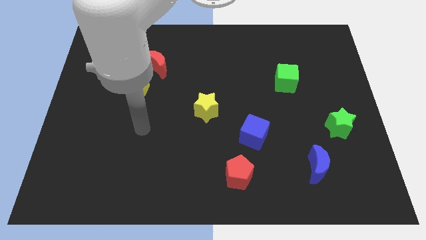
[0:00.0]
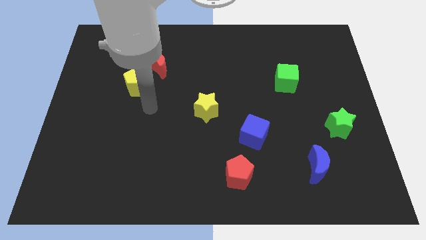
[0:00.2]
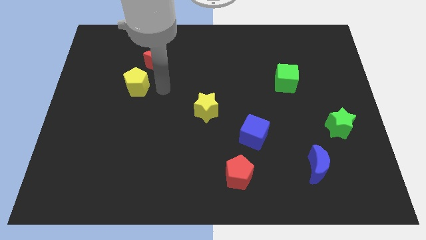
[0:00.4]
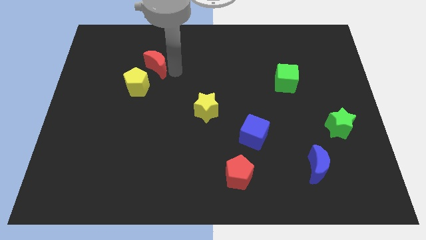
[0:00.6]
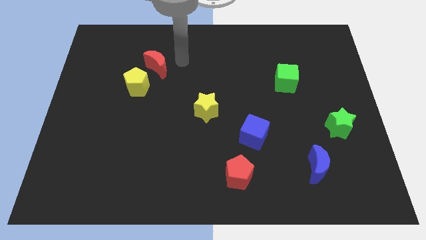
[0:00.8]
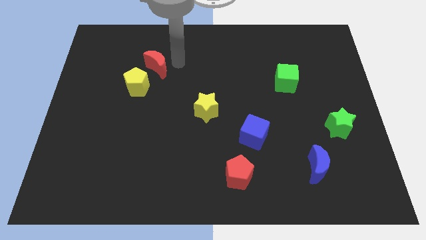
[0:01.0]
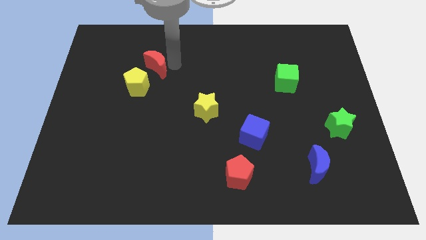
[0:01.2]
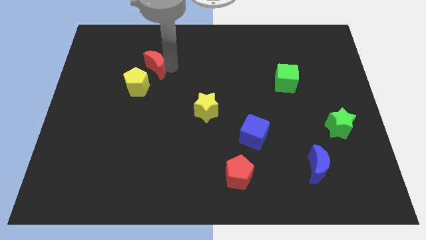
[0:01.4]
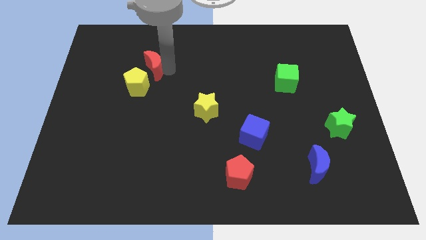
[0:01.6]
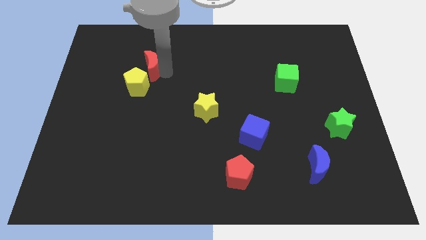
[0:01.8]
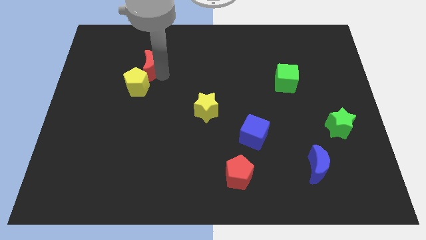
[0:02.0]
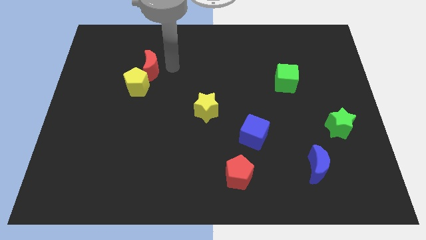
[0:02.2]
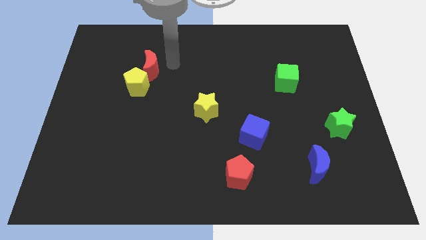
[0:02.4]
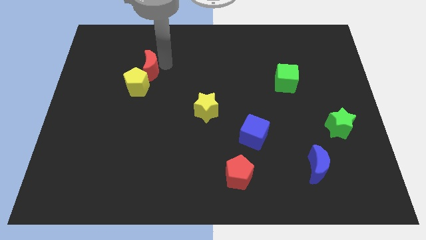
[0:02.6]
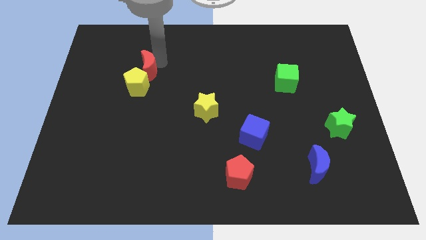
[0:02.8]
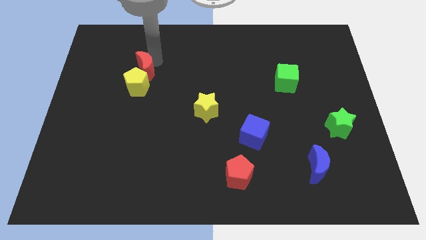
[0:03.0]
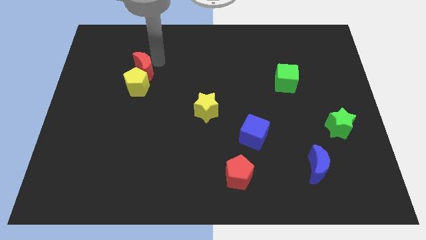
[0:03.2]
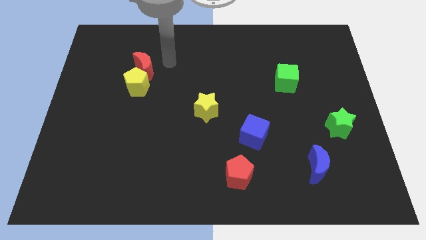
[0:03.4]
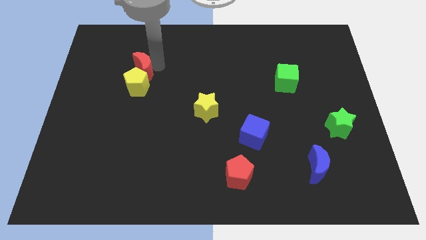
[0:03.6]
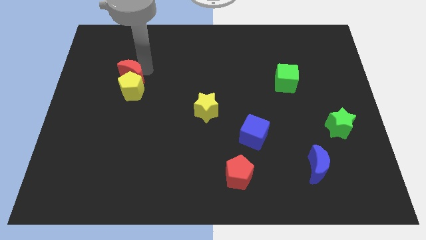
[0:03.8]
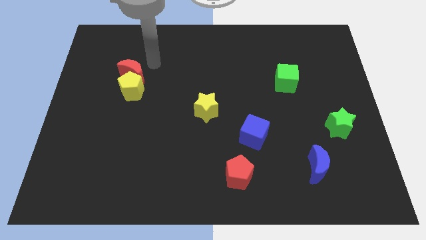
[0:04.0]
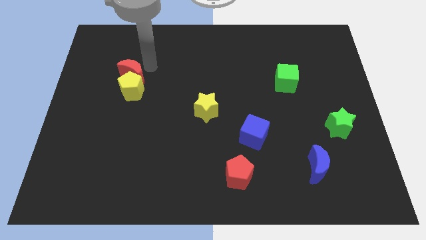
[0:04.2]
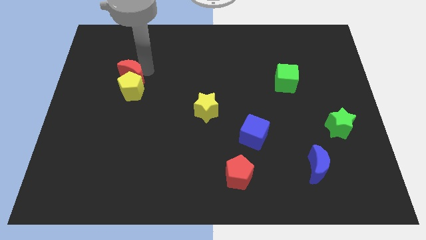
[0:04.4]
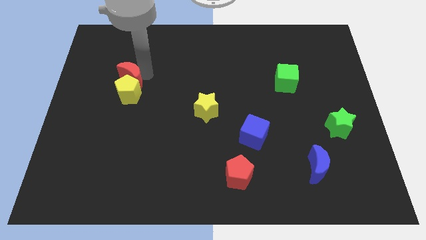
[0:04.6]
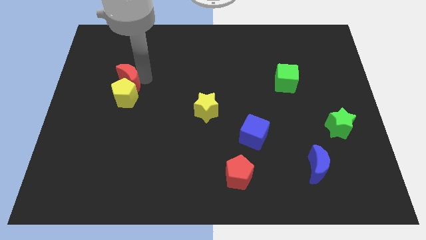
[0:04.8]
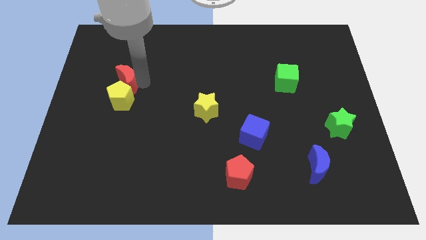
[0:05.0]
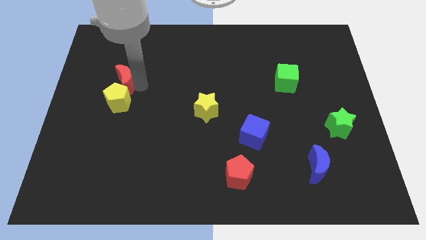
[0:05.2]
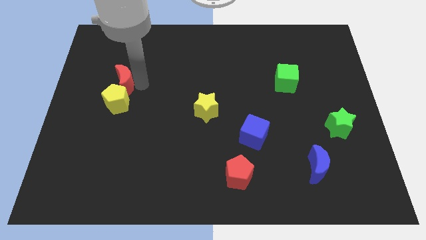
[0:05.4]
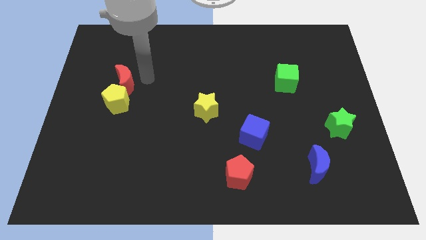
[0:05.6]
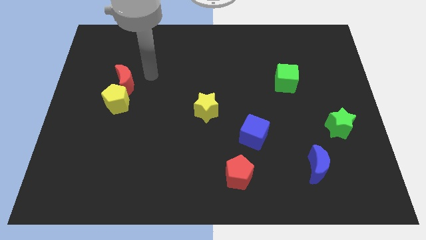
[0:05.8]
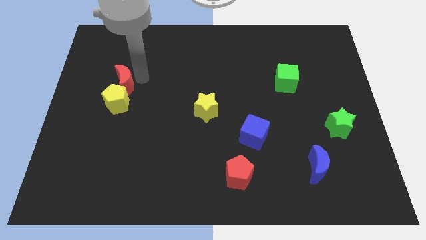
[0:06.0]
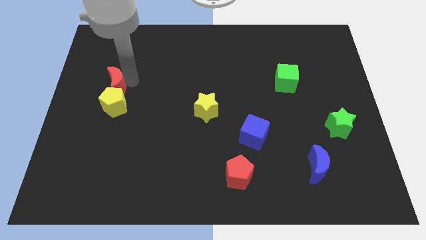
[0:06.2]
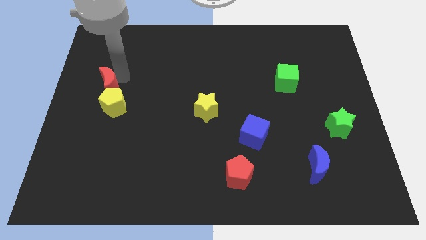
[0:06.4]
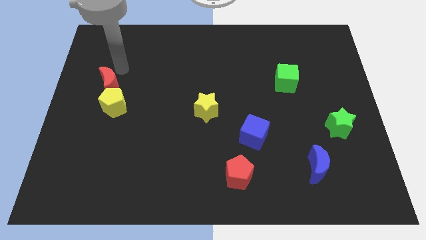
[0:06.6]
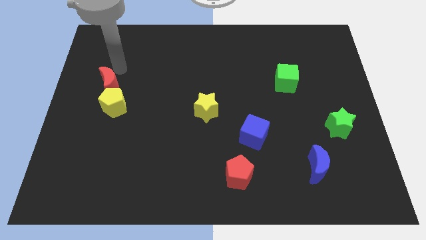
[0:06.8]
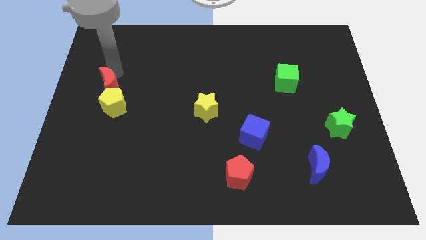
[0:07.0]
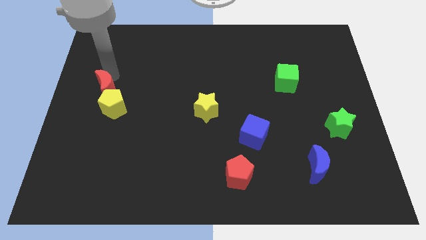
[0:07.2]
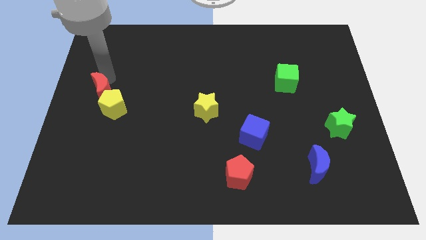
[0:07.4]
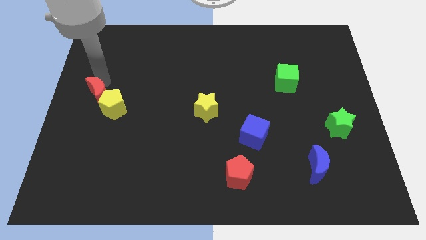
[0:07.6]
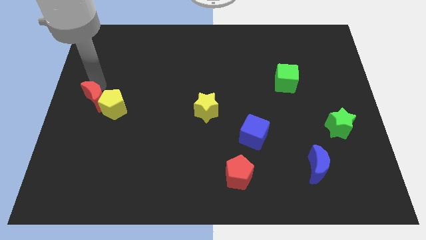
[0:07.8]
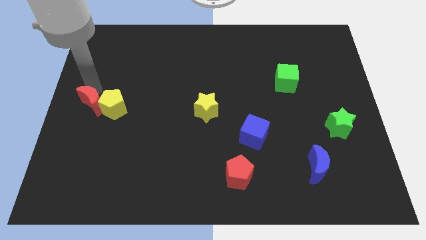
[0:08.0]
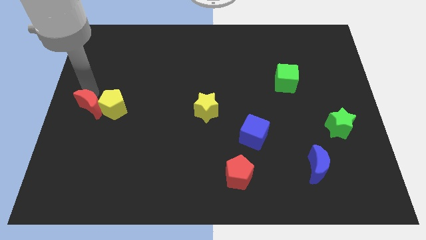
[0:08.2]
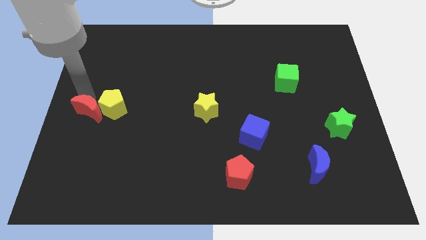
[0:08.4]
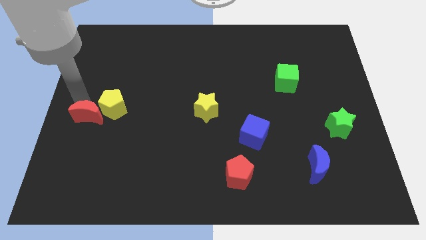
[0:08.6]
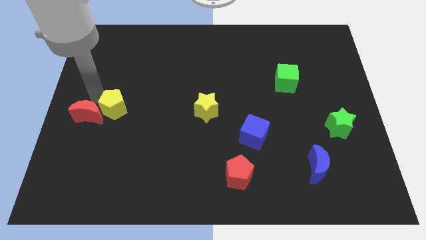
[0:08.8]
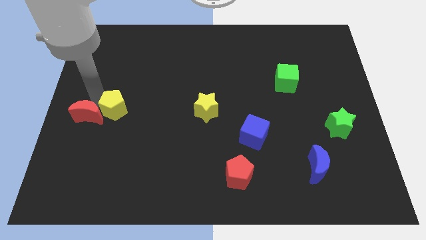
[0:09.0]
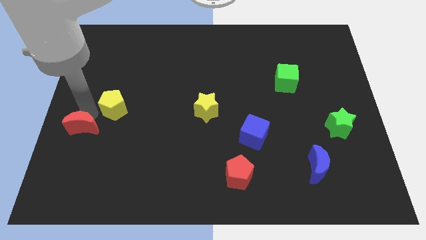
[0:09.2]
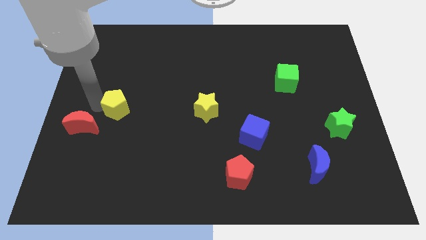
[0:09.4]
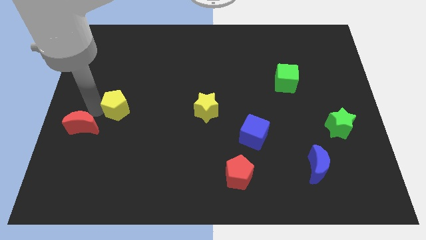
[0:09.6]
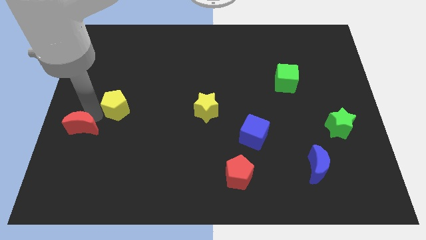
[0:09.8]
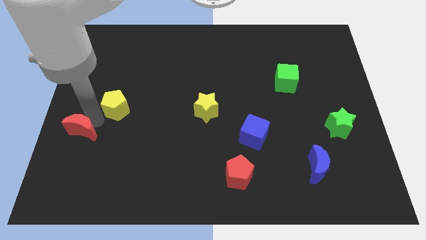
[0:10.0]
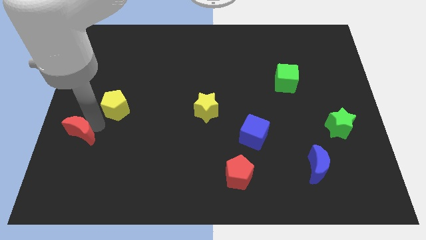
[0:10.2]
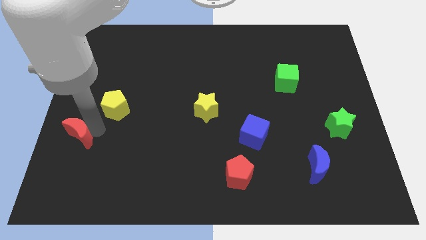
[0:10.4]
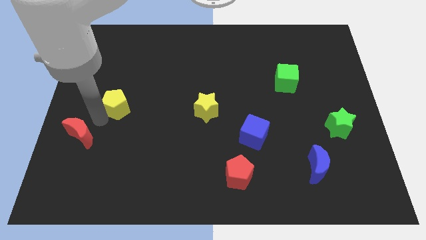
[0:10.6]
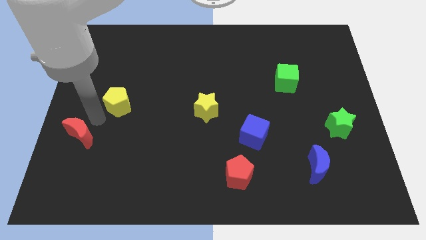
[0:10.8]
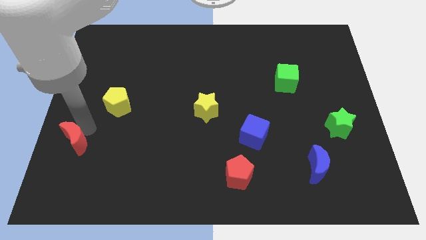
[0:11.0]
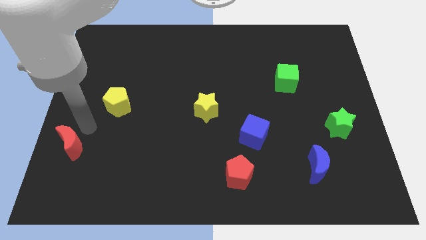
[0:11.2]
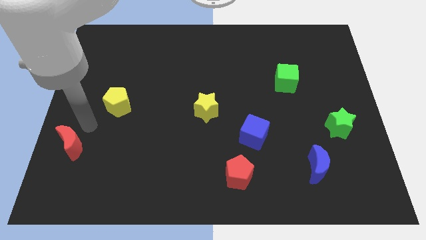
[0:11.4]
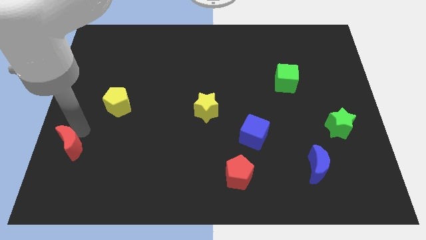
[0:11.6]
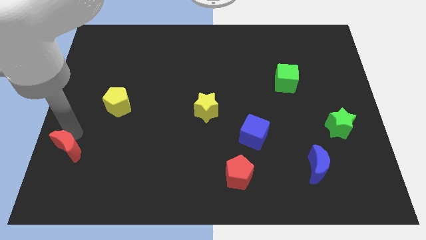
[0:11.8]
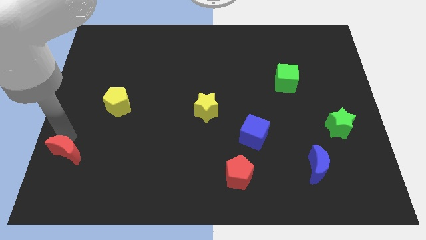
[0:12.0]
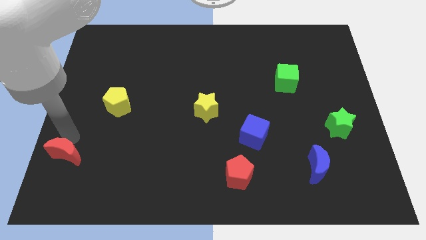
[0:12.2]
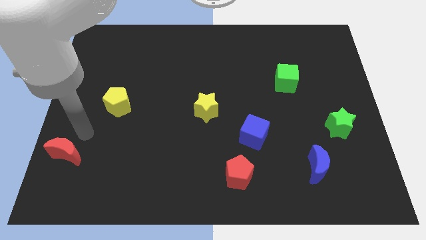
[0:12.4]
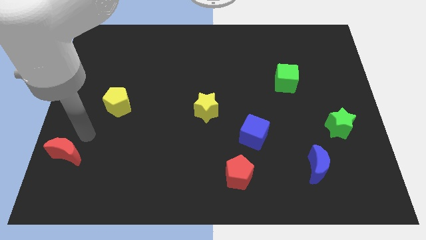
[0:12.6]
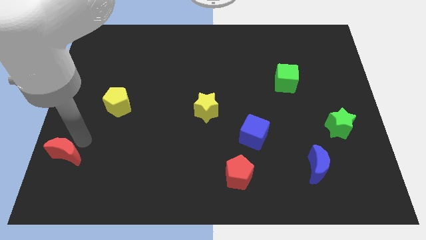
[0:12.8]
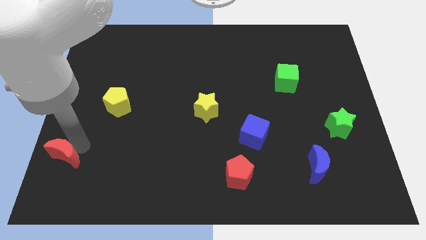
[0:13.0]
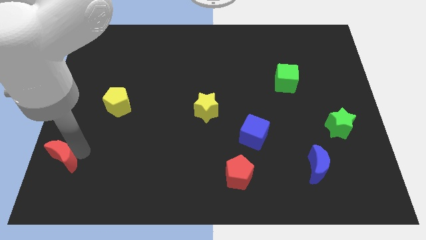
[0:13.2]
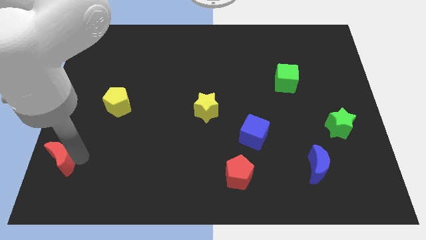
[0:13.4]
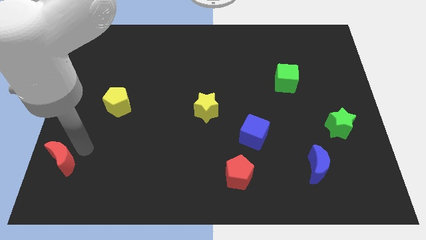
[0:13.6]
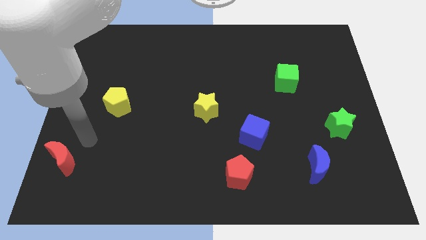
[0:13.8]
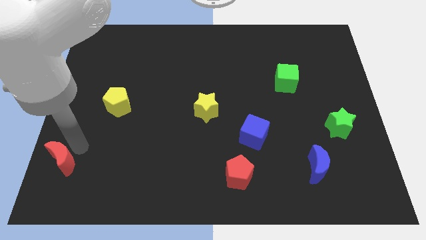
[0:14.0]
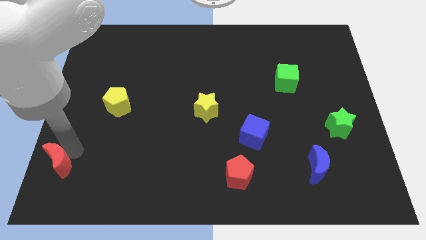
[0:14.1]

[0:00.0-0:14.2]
move the red moon to the bottom left corner
